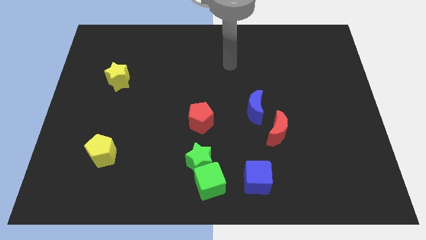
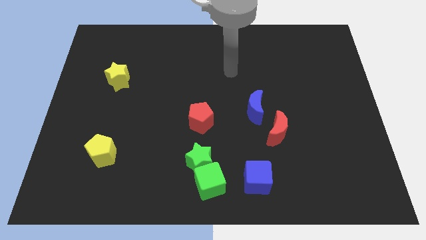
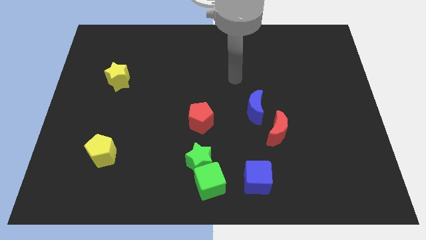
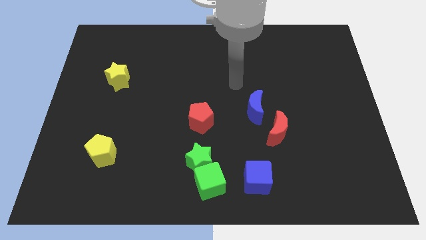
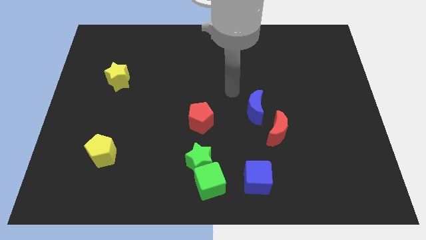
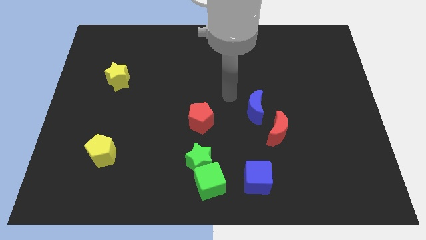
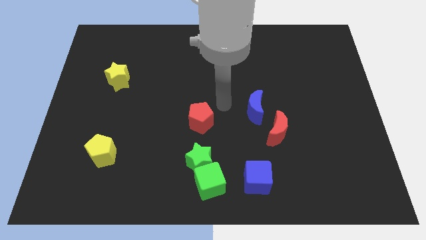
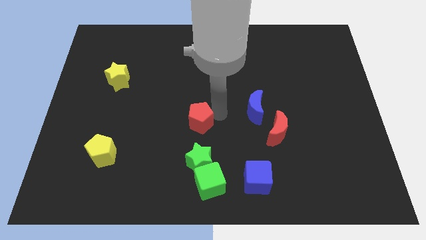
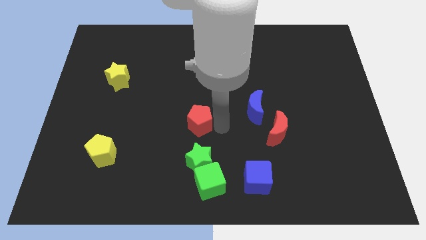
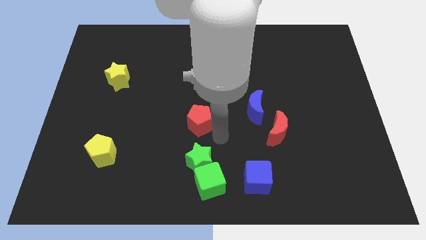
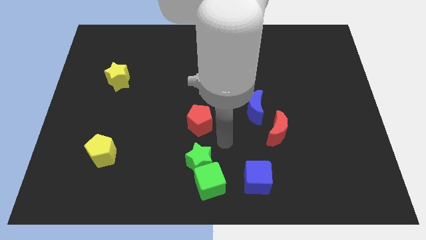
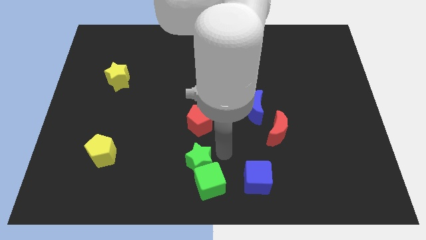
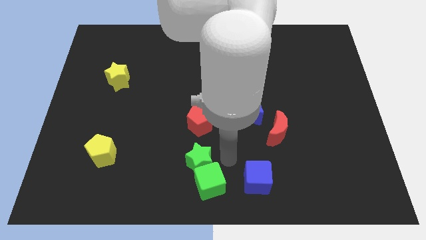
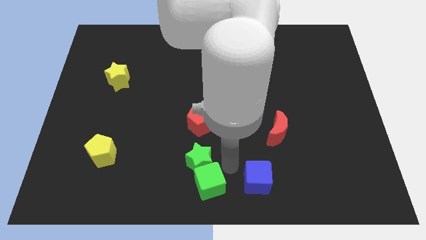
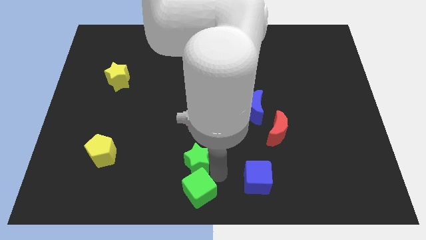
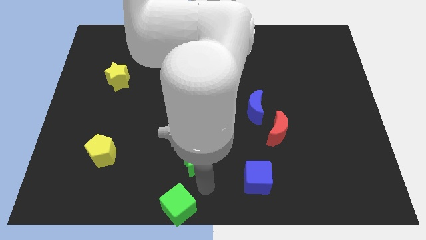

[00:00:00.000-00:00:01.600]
pull the green star apart from the green cube

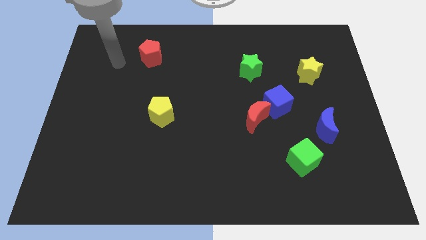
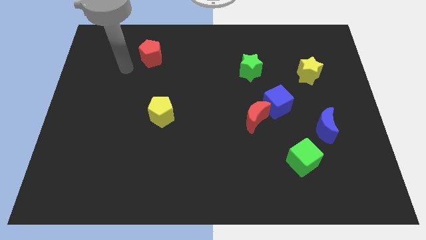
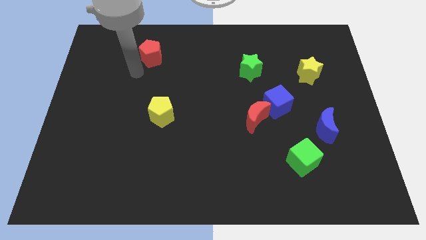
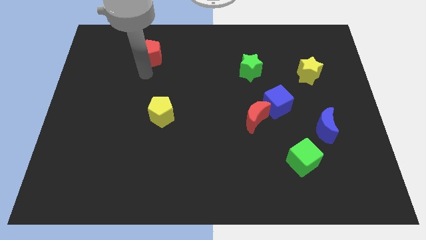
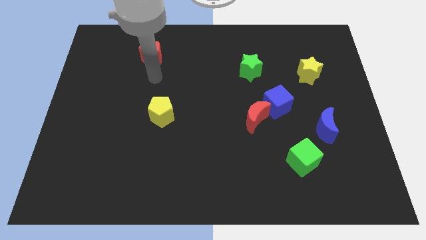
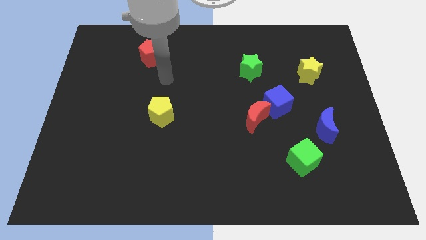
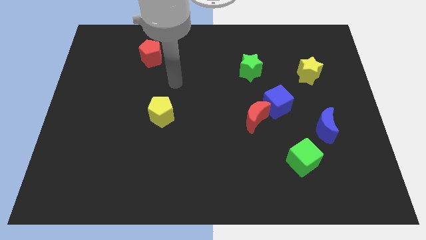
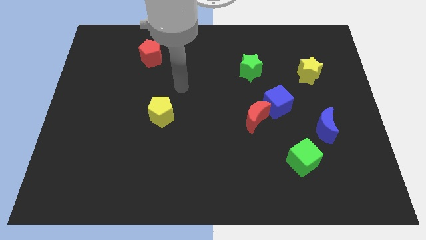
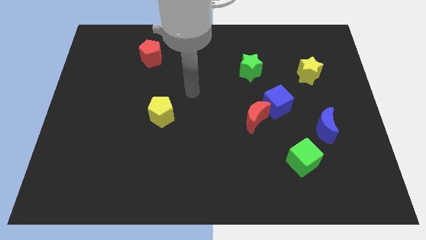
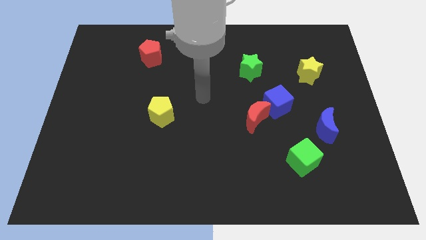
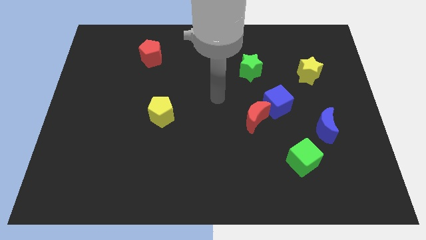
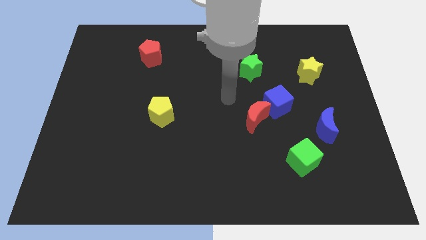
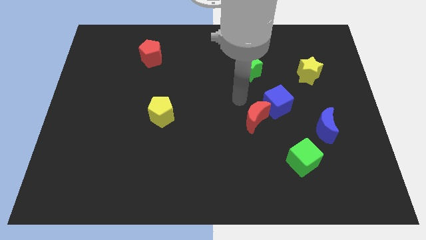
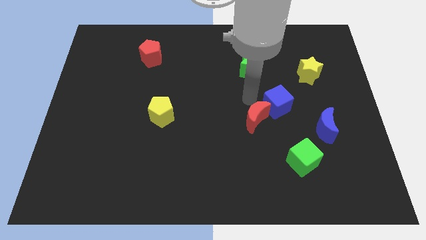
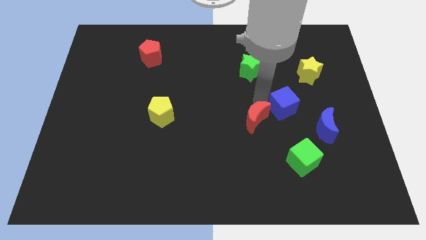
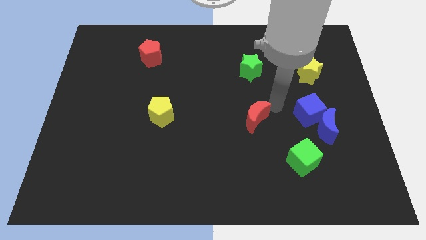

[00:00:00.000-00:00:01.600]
separate the red moon from the blue cube

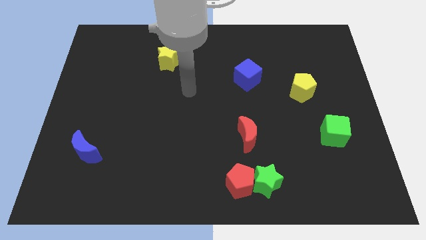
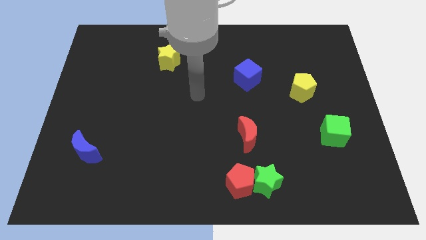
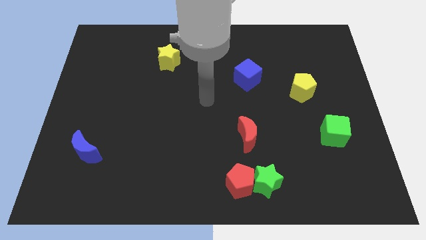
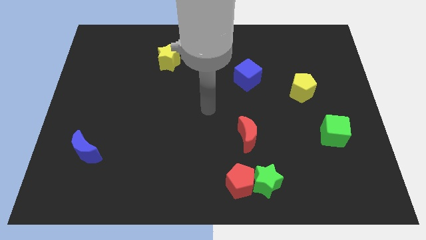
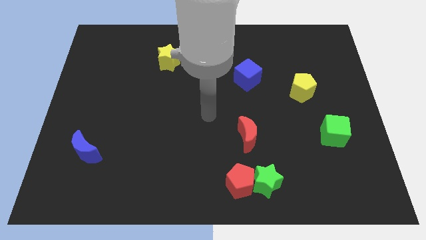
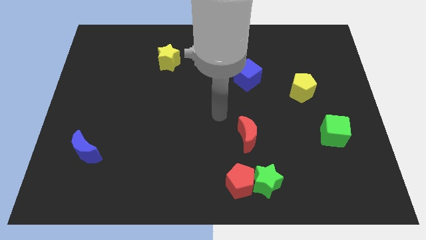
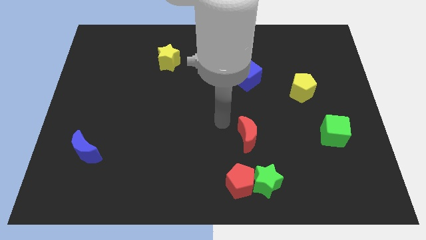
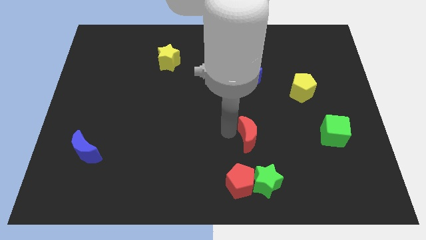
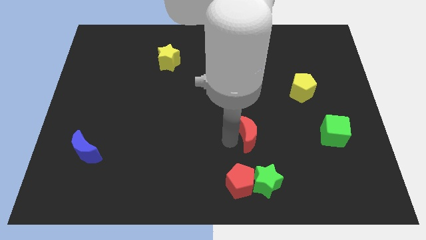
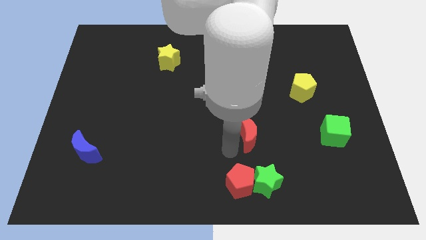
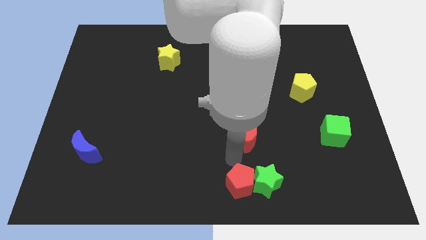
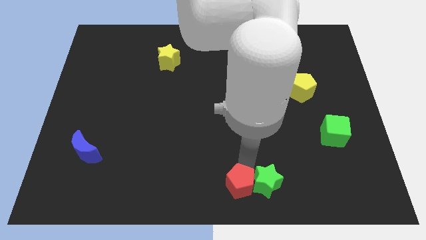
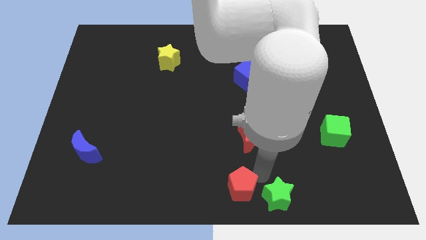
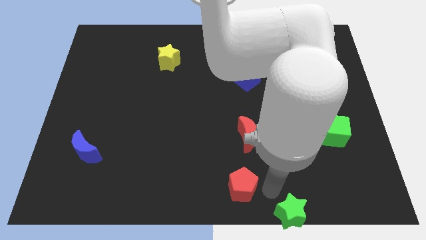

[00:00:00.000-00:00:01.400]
pull the red pentagon apart from the green star

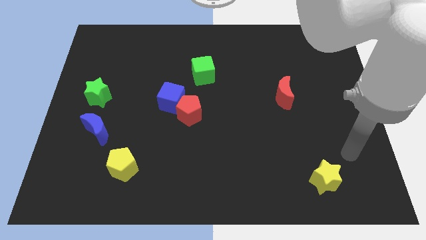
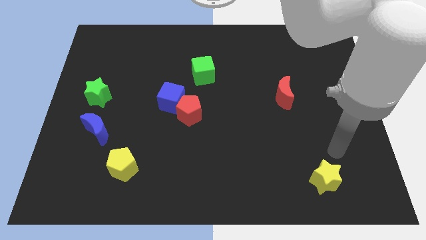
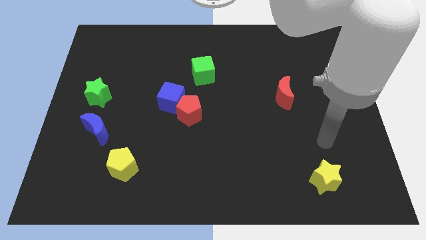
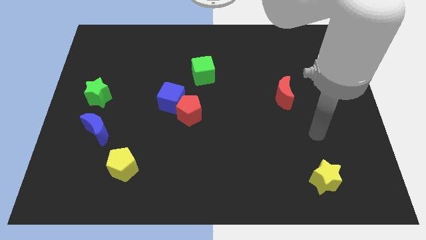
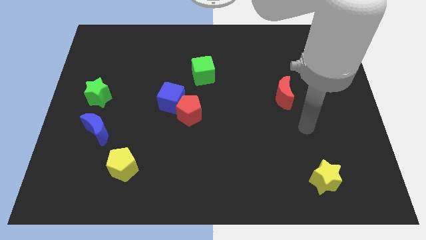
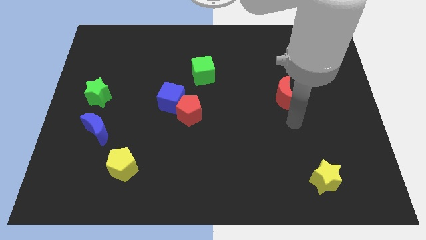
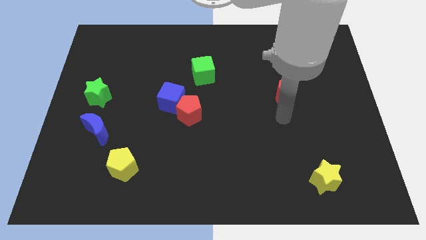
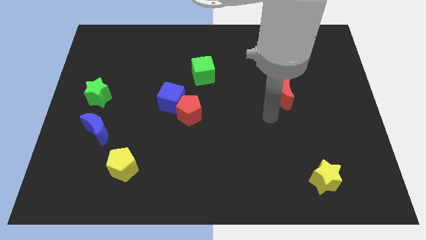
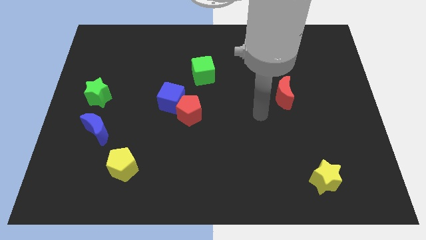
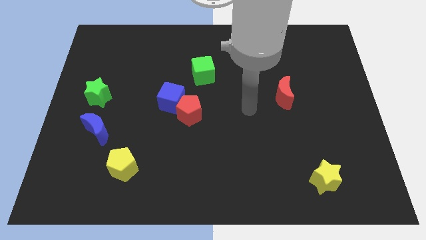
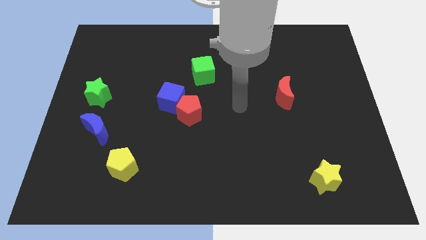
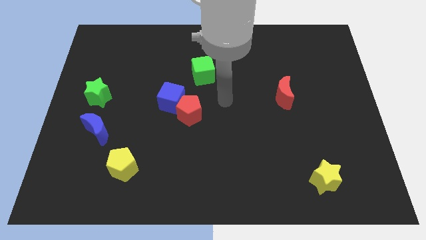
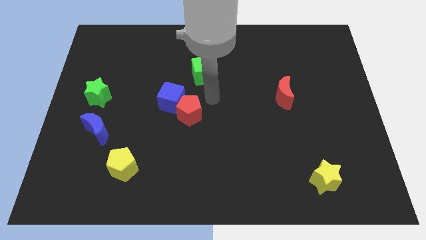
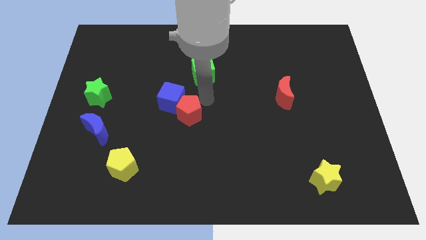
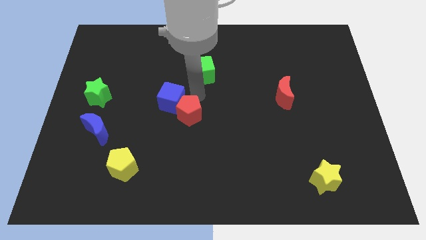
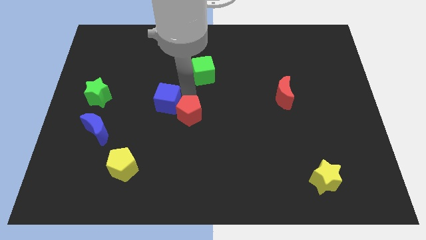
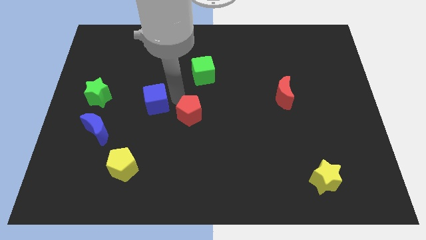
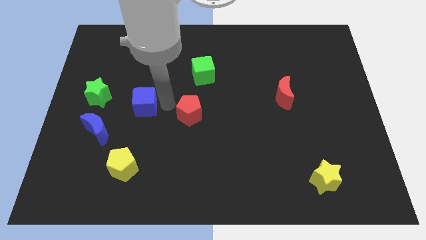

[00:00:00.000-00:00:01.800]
separate the red pentagon from the blue cube

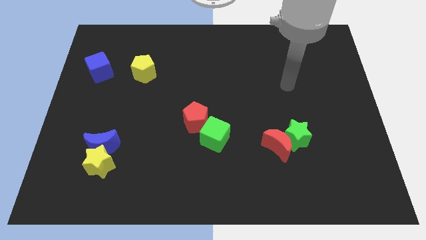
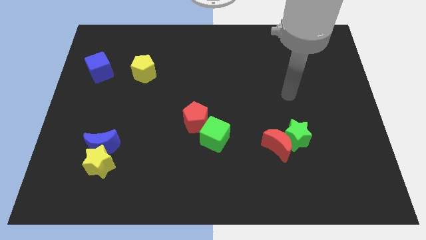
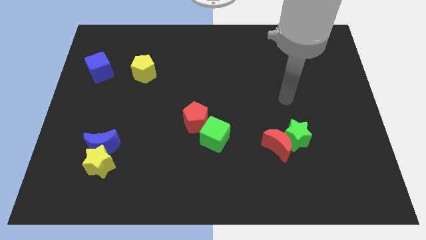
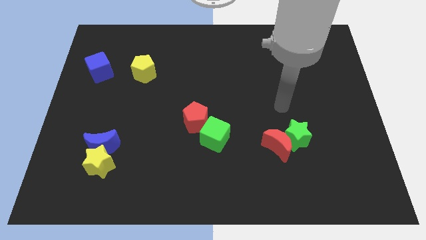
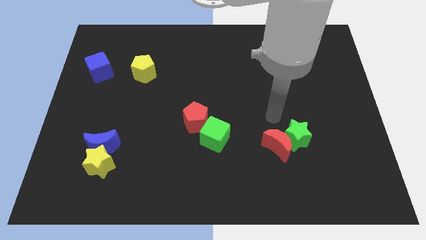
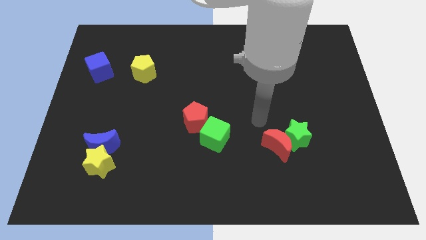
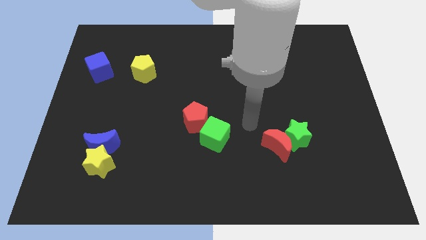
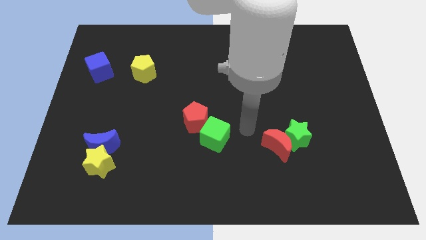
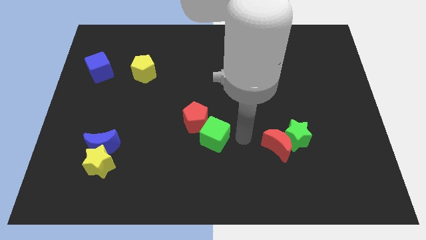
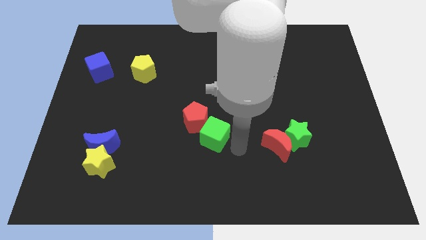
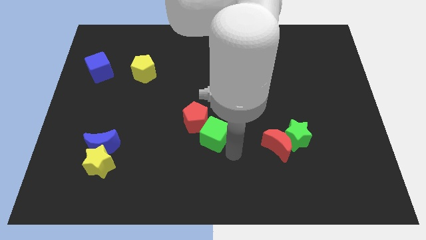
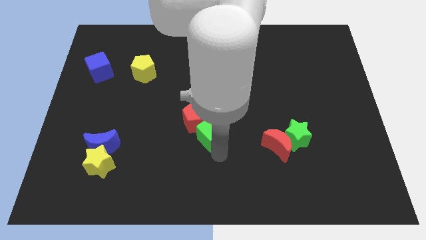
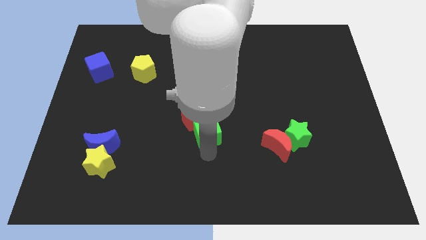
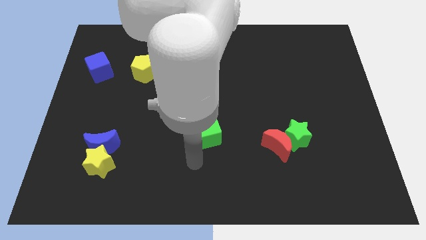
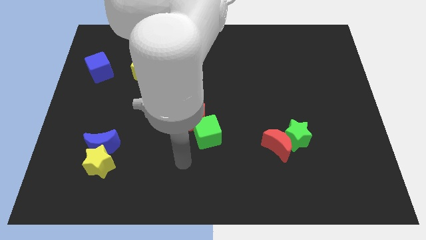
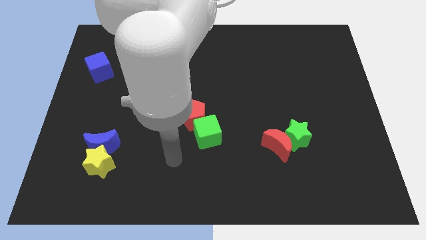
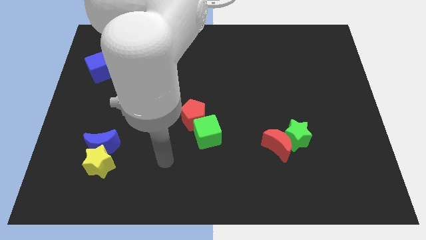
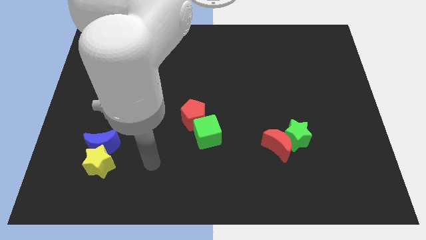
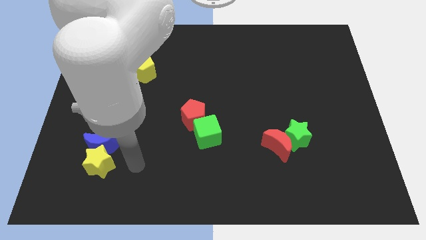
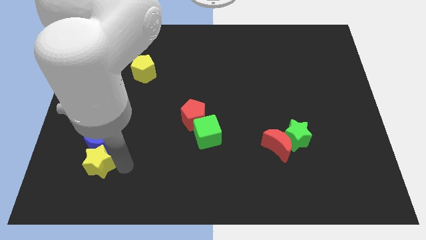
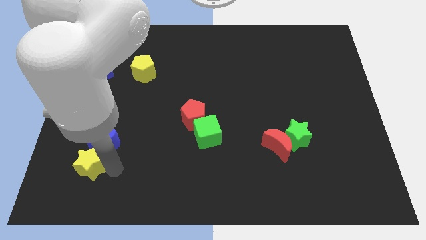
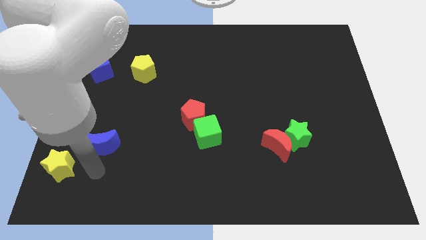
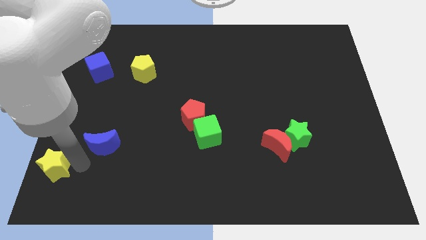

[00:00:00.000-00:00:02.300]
separate the blue moon from the yellow star

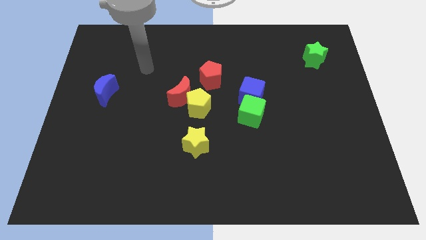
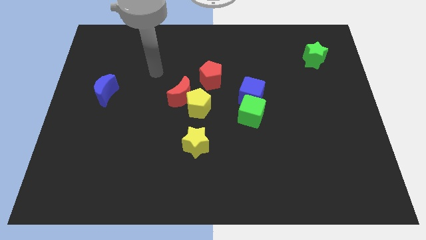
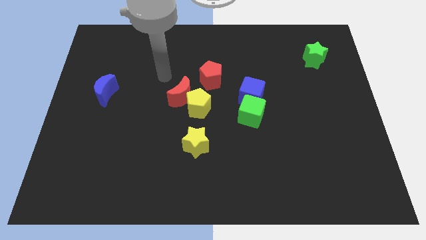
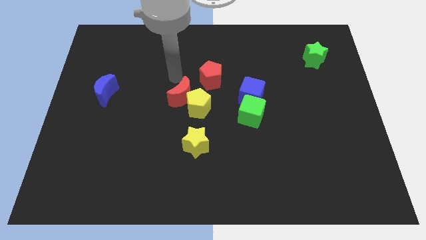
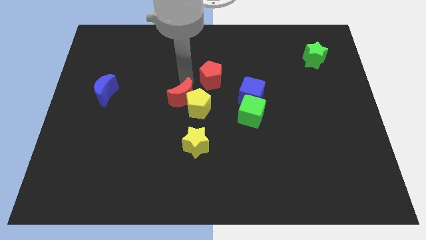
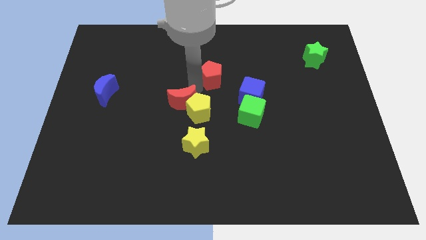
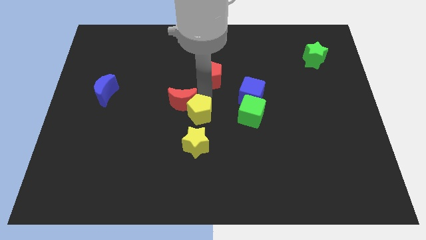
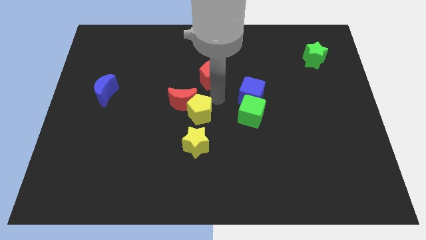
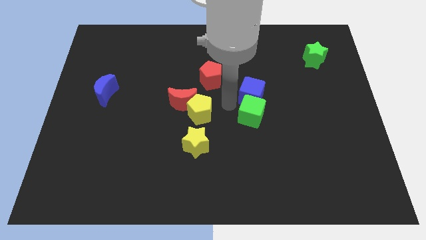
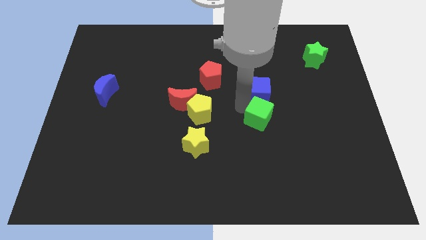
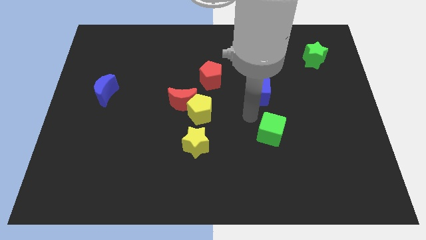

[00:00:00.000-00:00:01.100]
pull the blue cube apart from the green cube
